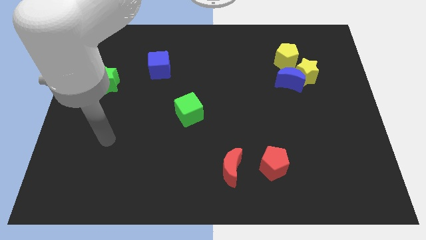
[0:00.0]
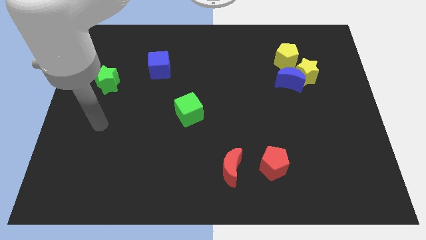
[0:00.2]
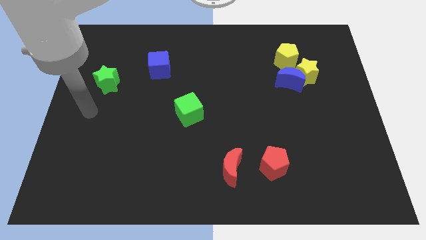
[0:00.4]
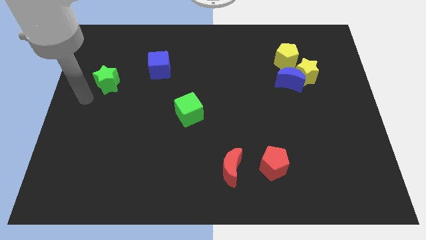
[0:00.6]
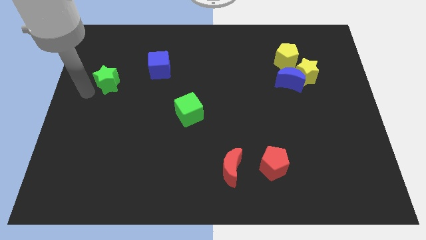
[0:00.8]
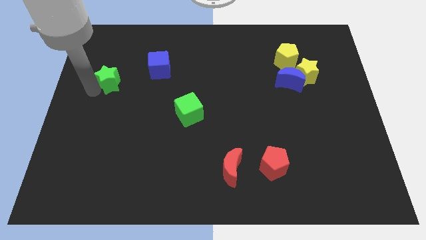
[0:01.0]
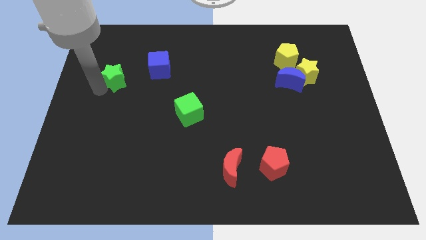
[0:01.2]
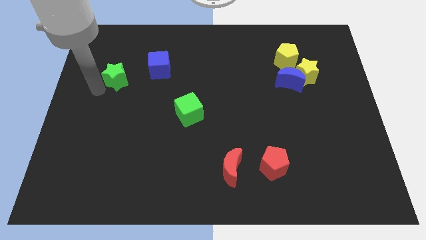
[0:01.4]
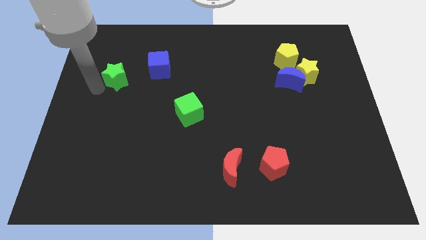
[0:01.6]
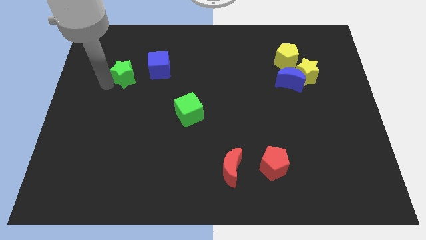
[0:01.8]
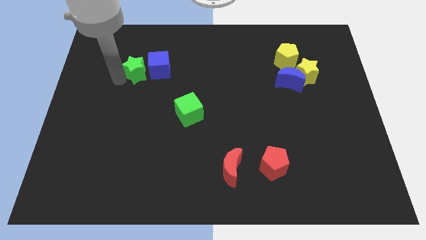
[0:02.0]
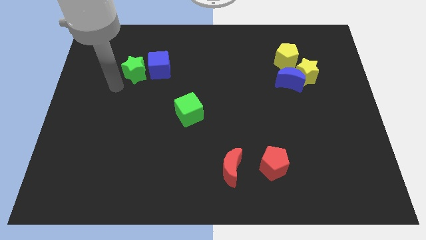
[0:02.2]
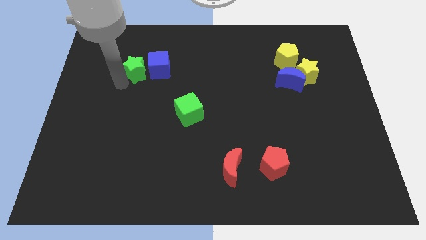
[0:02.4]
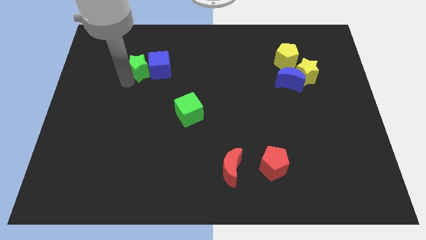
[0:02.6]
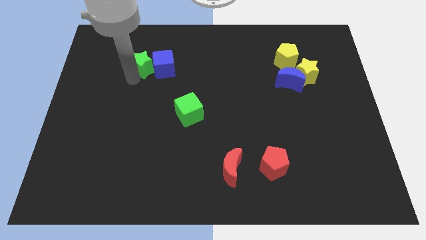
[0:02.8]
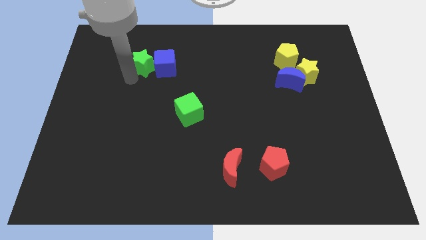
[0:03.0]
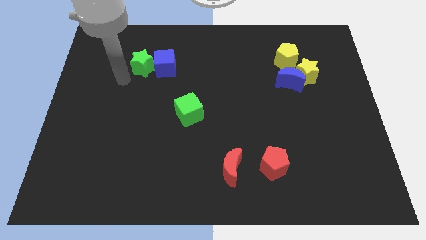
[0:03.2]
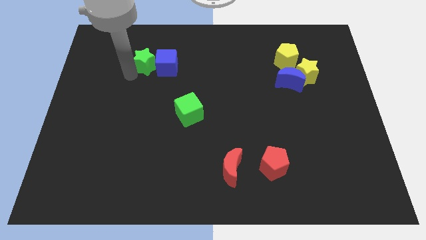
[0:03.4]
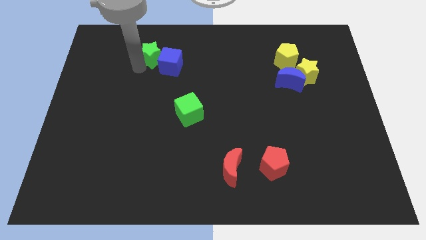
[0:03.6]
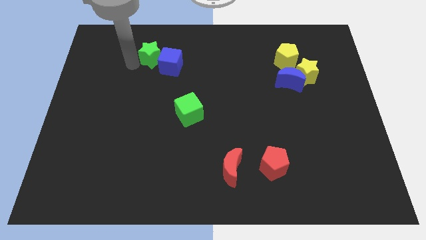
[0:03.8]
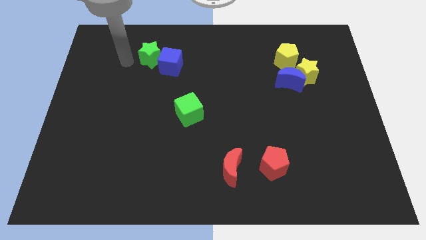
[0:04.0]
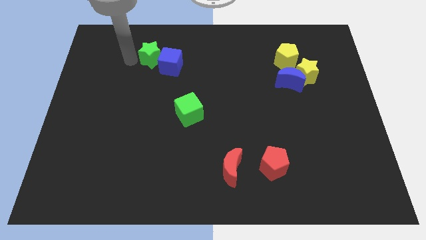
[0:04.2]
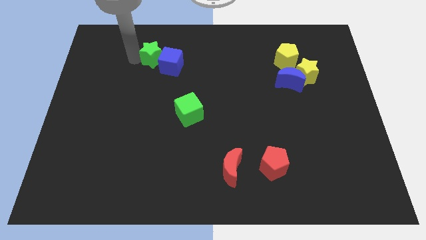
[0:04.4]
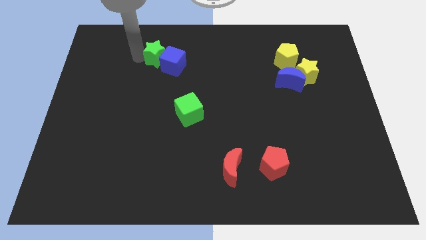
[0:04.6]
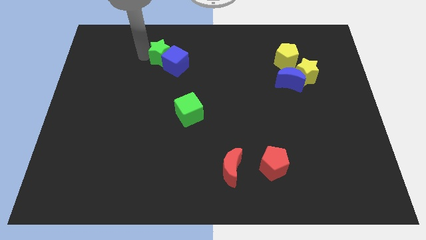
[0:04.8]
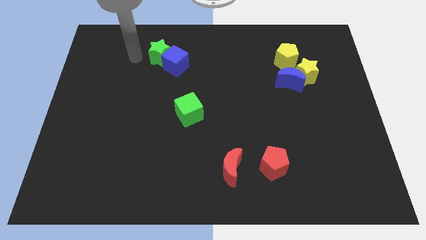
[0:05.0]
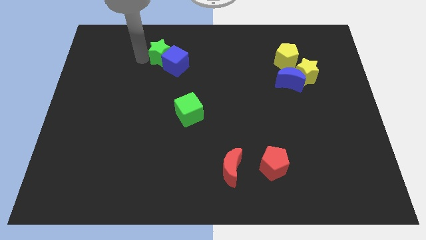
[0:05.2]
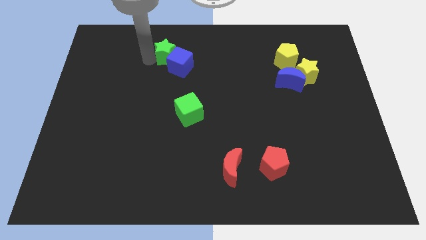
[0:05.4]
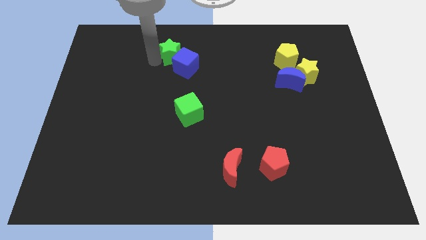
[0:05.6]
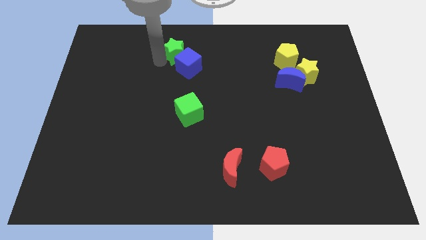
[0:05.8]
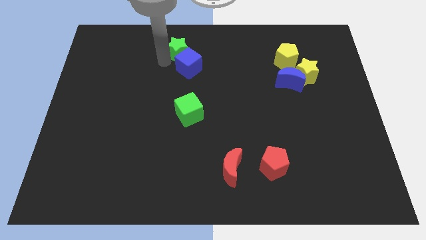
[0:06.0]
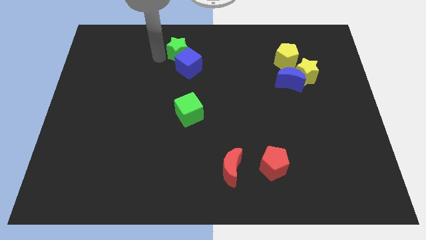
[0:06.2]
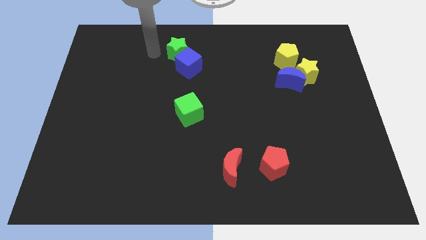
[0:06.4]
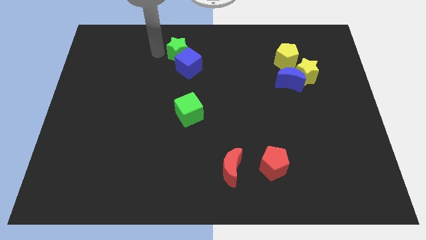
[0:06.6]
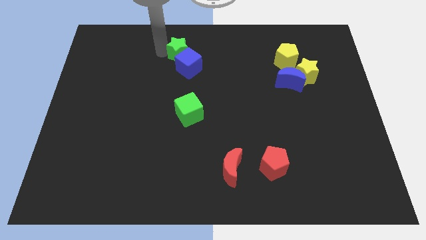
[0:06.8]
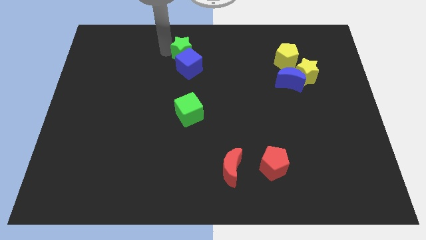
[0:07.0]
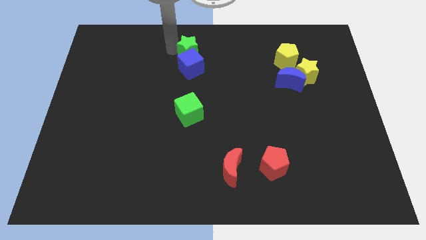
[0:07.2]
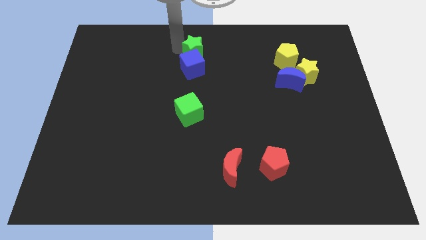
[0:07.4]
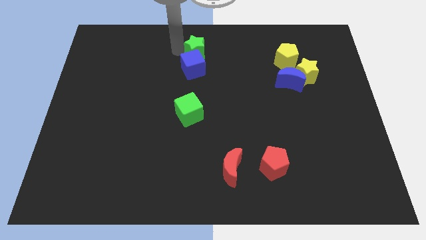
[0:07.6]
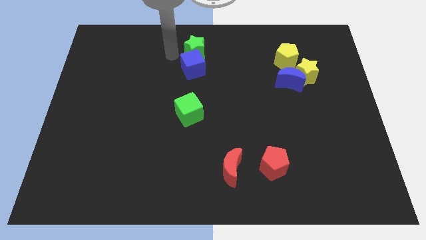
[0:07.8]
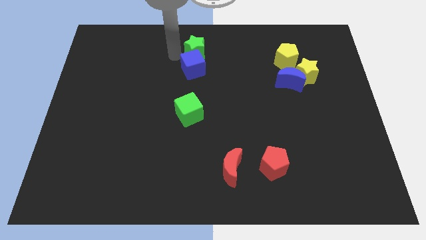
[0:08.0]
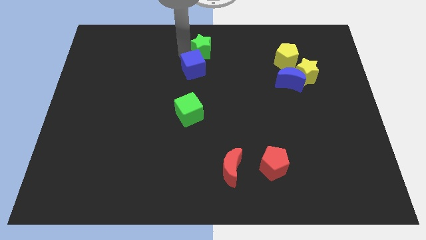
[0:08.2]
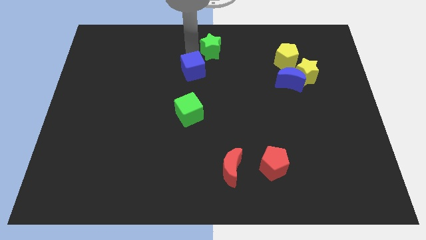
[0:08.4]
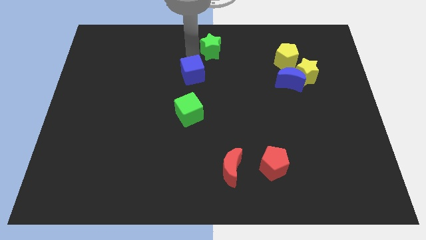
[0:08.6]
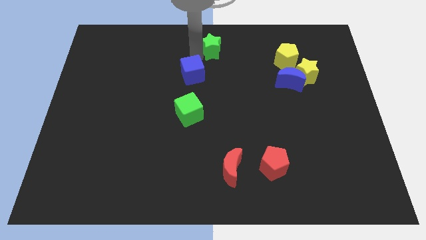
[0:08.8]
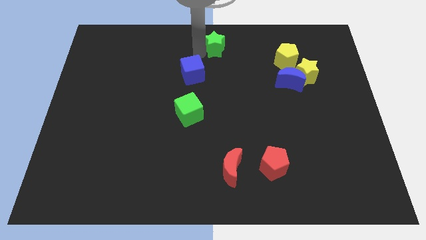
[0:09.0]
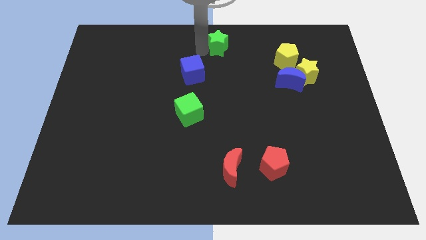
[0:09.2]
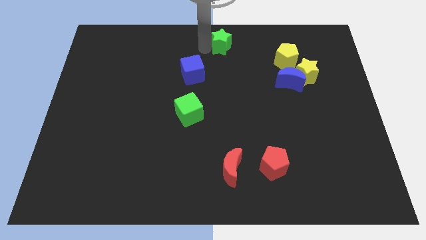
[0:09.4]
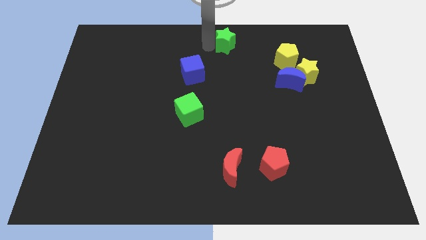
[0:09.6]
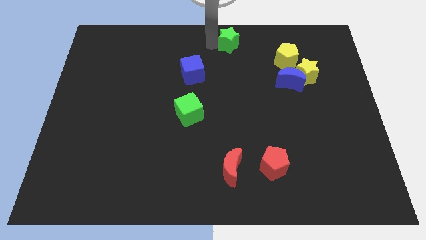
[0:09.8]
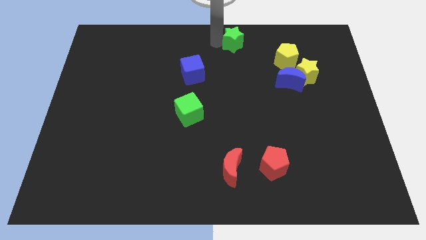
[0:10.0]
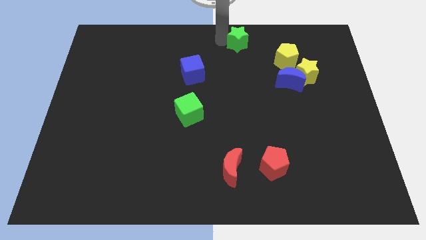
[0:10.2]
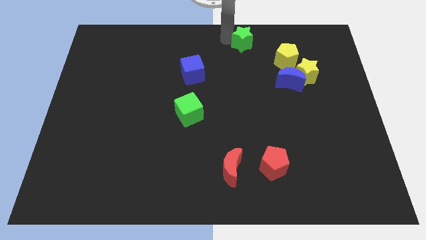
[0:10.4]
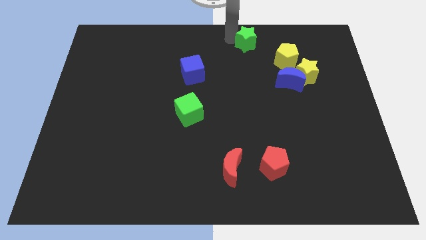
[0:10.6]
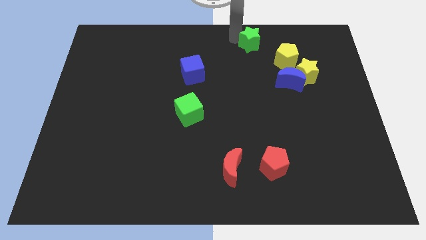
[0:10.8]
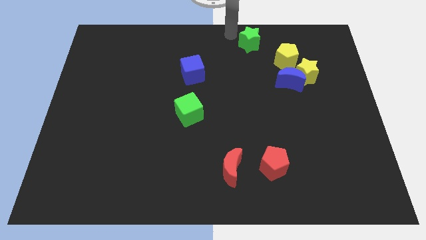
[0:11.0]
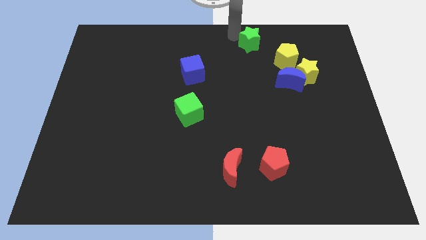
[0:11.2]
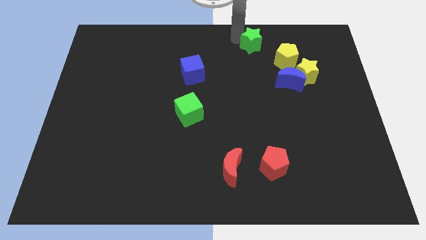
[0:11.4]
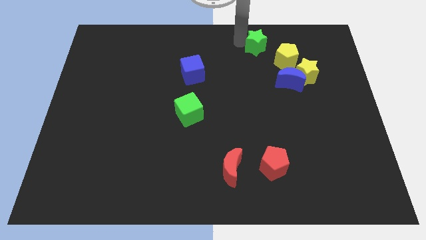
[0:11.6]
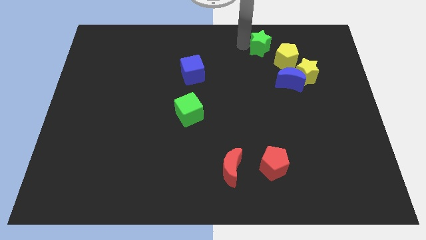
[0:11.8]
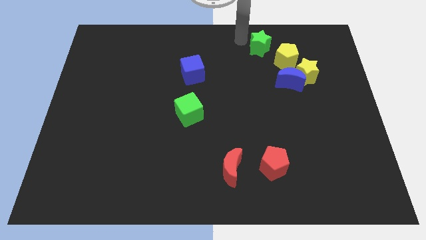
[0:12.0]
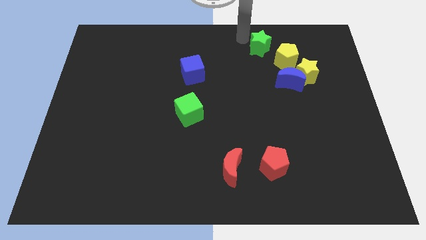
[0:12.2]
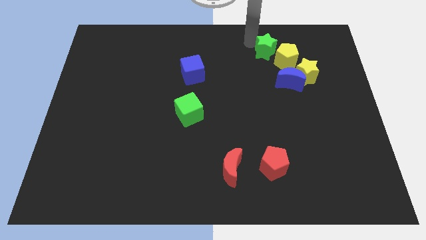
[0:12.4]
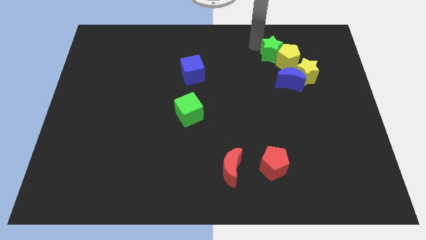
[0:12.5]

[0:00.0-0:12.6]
slide the green star to the top left side of the yellow star
